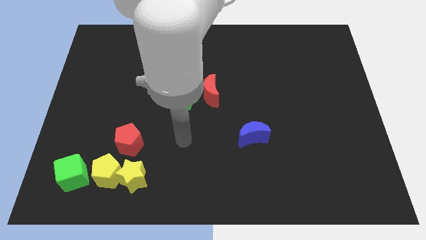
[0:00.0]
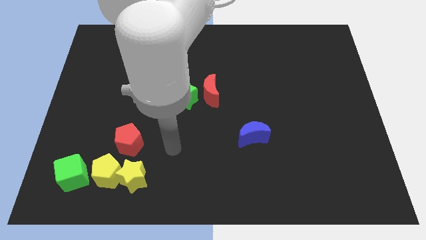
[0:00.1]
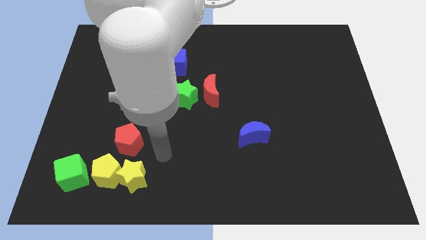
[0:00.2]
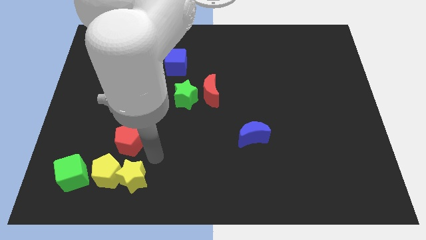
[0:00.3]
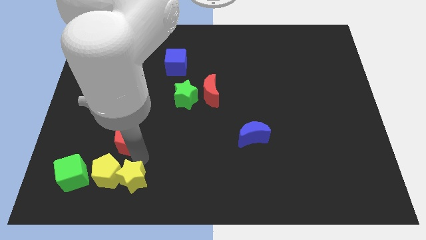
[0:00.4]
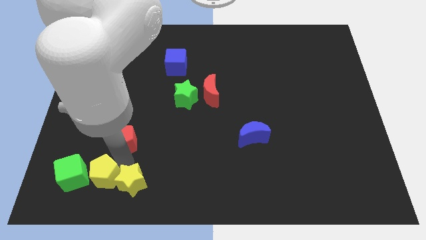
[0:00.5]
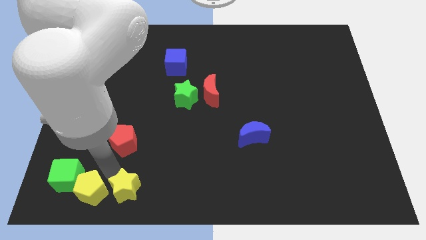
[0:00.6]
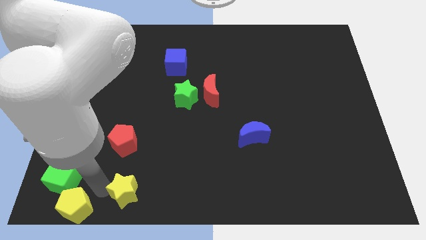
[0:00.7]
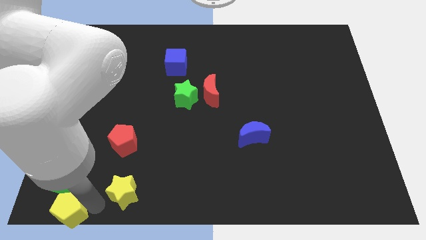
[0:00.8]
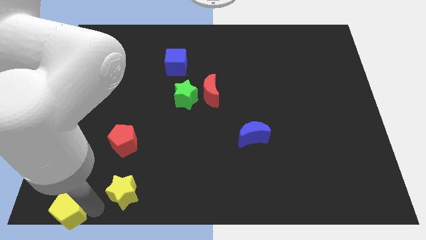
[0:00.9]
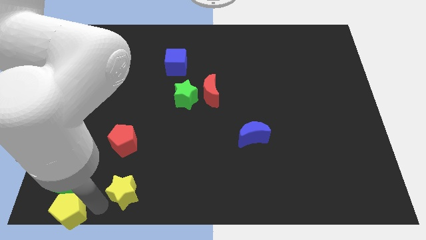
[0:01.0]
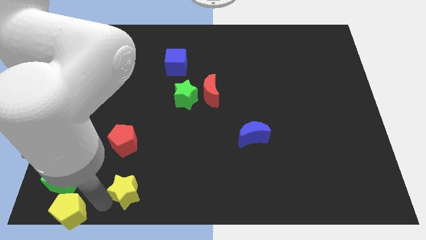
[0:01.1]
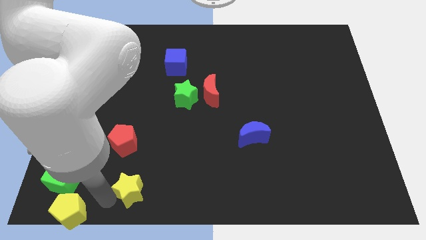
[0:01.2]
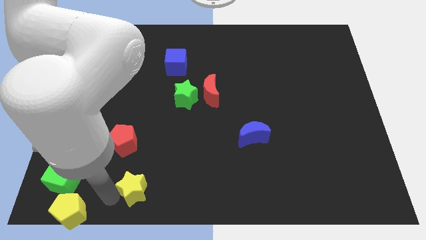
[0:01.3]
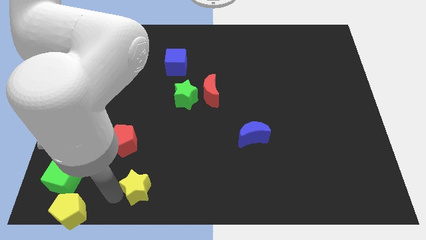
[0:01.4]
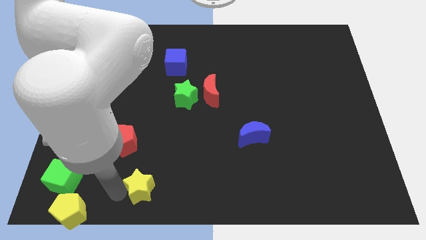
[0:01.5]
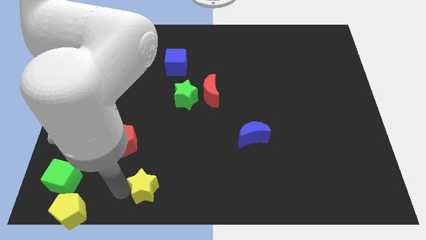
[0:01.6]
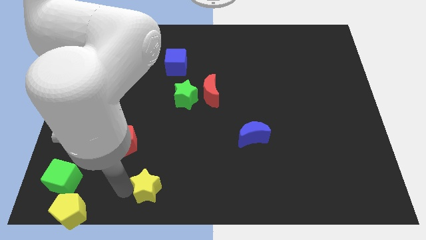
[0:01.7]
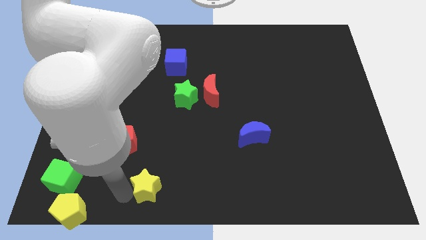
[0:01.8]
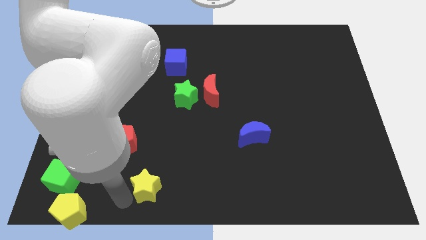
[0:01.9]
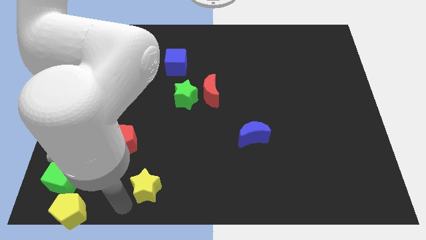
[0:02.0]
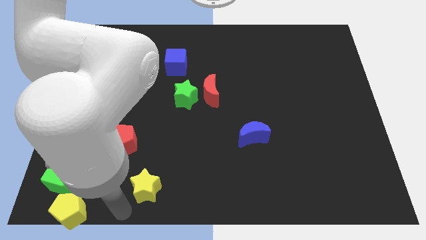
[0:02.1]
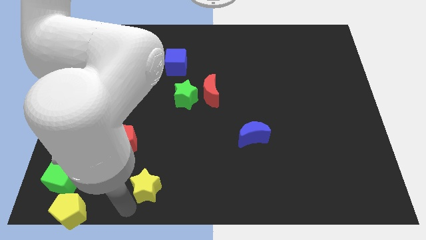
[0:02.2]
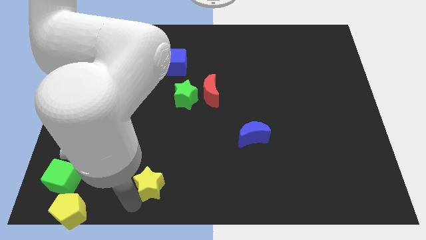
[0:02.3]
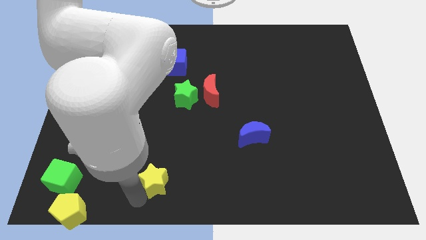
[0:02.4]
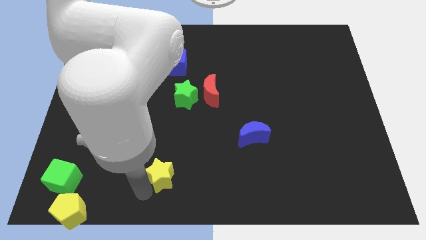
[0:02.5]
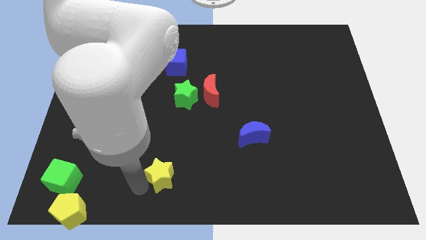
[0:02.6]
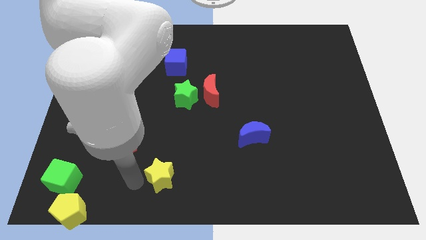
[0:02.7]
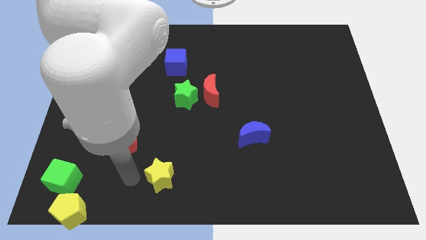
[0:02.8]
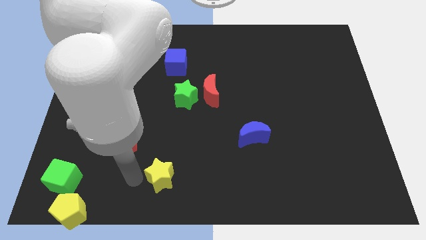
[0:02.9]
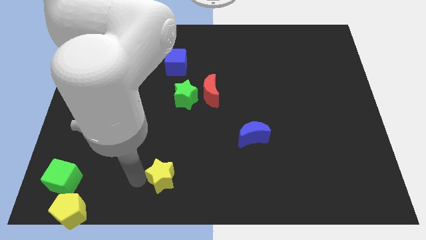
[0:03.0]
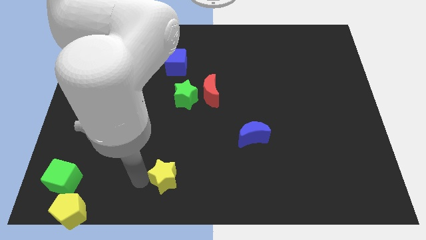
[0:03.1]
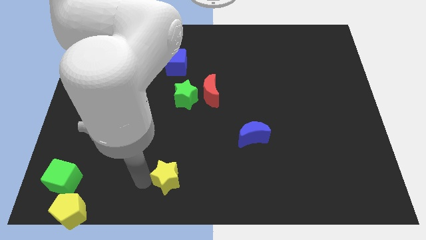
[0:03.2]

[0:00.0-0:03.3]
push the yellow star right somewhat

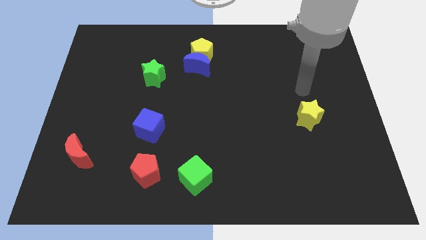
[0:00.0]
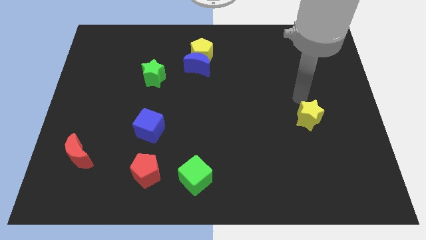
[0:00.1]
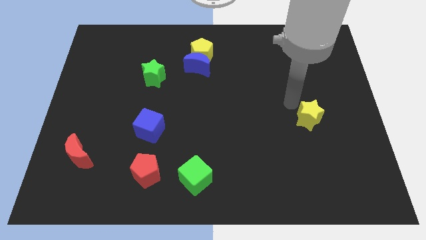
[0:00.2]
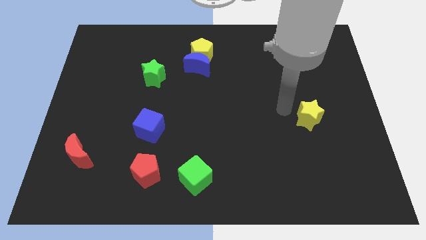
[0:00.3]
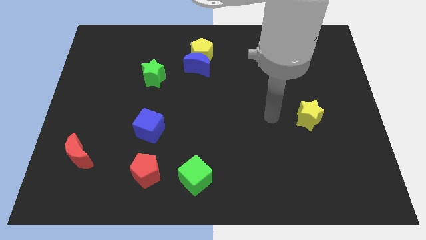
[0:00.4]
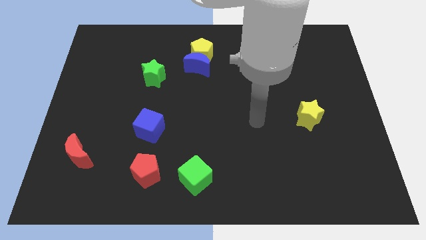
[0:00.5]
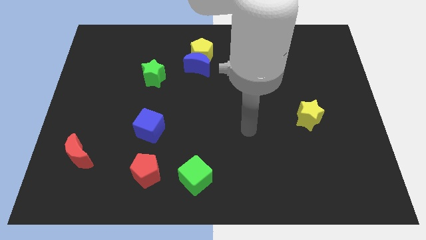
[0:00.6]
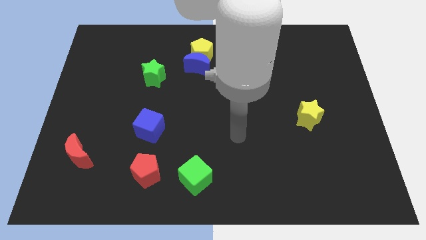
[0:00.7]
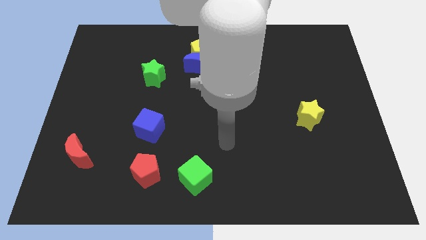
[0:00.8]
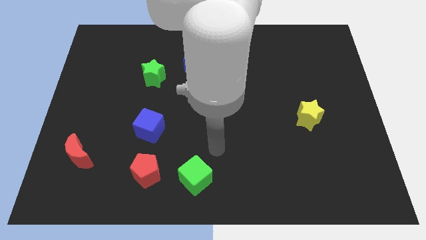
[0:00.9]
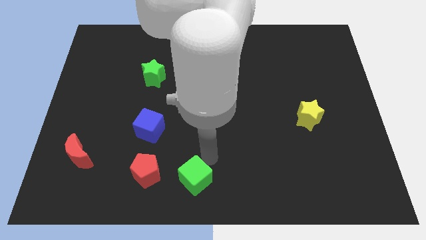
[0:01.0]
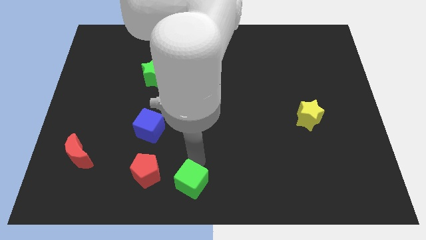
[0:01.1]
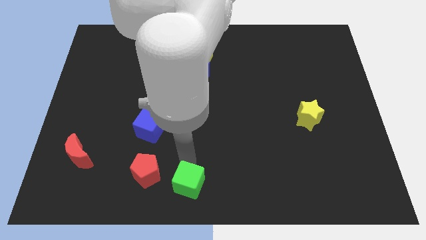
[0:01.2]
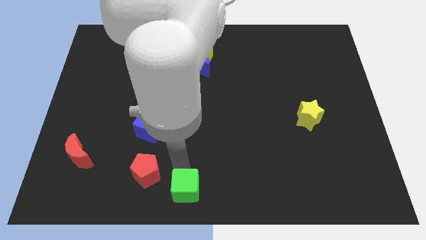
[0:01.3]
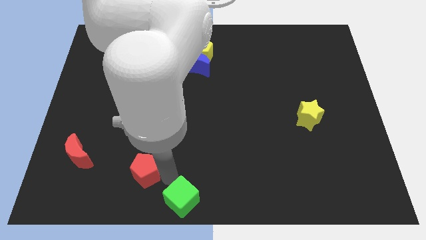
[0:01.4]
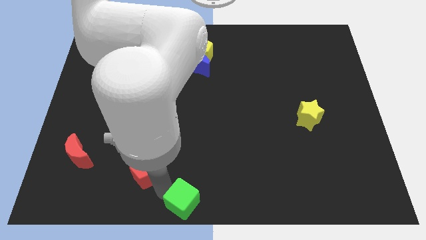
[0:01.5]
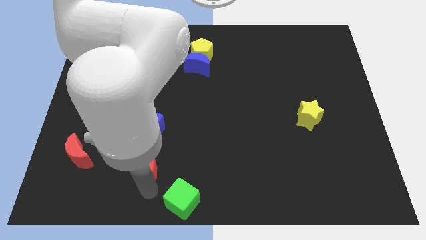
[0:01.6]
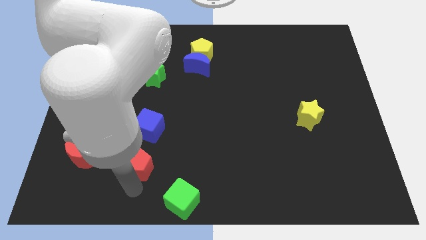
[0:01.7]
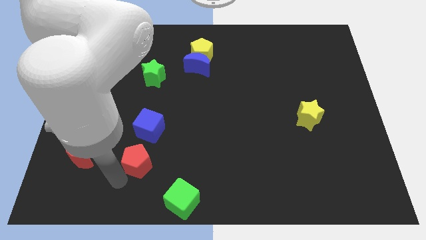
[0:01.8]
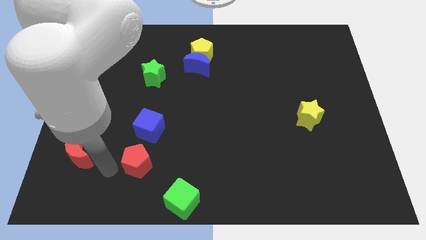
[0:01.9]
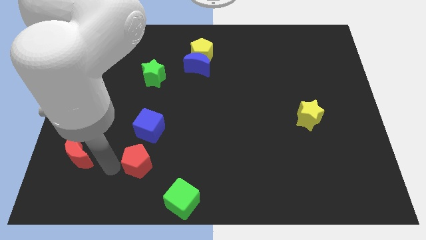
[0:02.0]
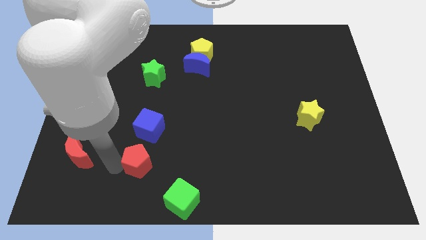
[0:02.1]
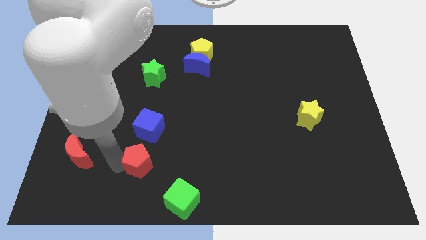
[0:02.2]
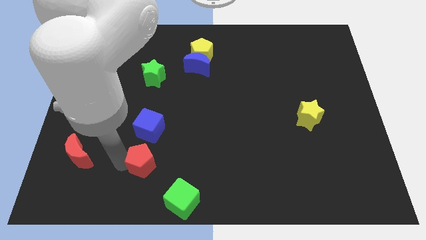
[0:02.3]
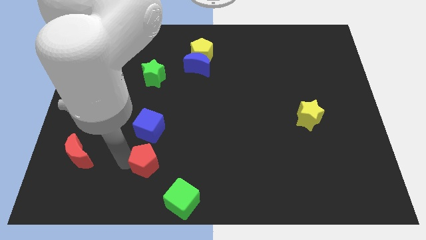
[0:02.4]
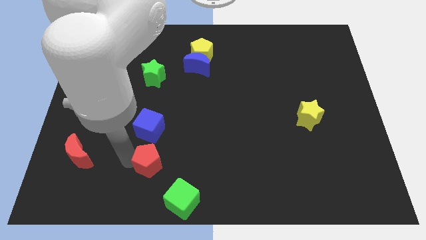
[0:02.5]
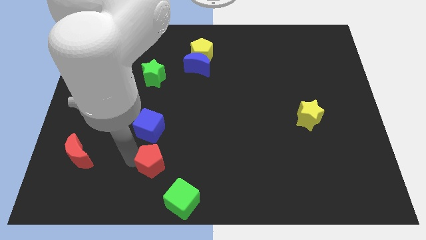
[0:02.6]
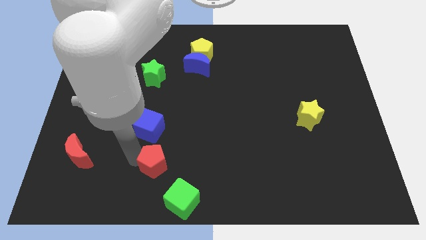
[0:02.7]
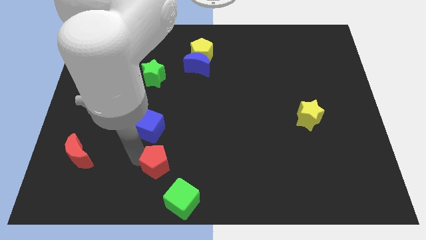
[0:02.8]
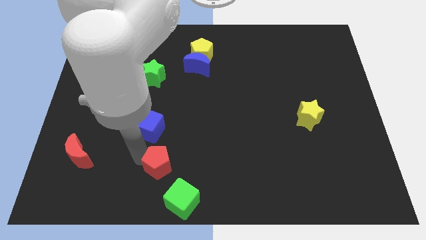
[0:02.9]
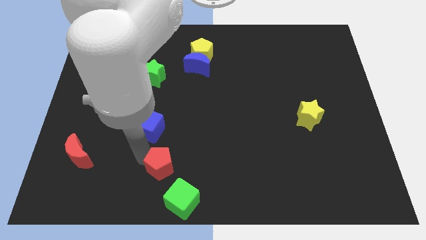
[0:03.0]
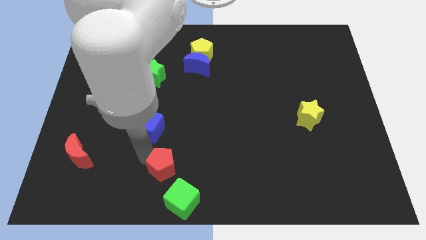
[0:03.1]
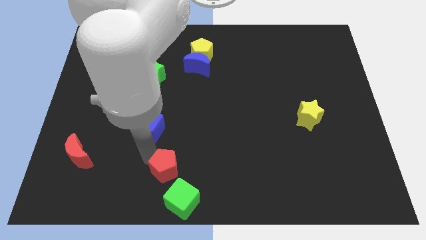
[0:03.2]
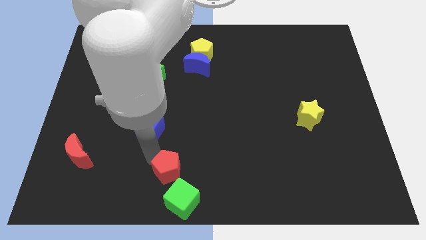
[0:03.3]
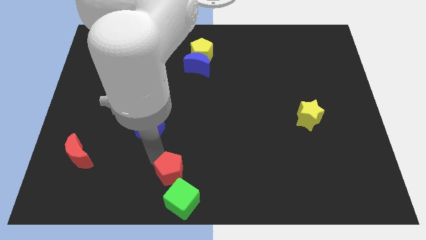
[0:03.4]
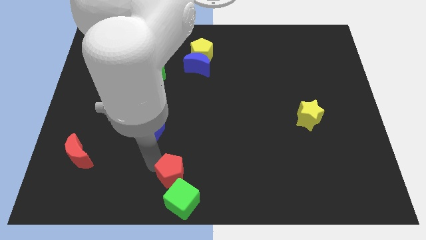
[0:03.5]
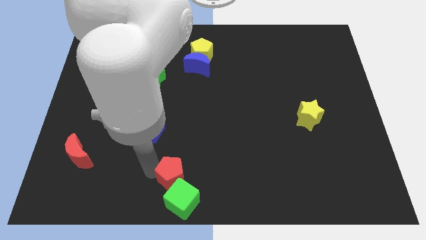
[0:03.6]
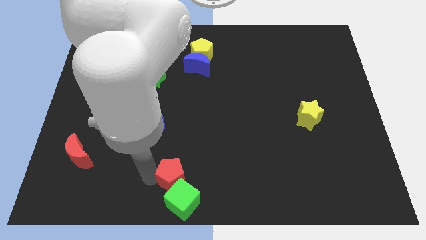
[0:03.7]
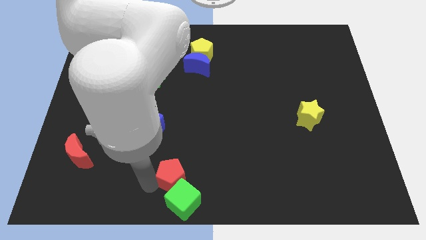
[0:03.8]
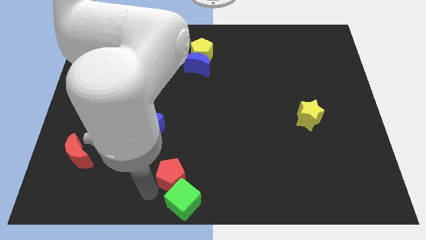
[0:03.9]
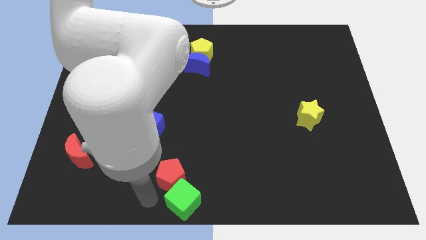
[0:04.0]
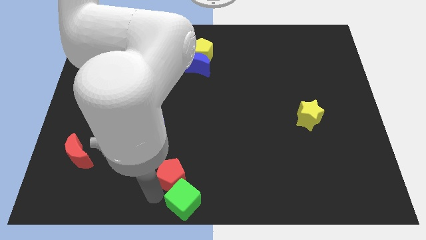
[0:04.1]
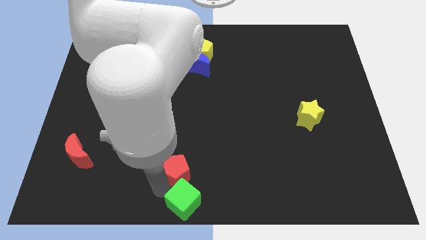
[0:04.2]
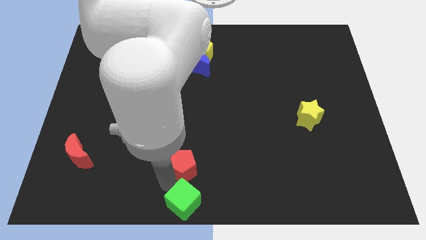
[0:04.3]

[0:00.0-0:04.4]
slightly move the red pentagon right

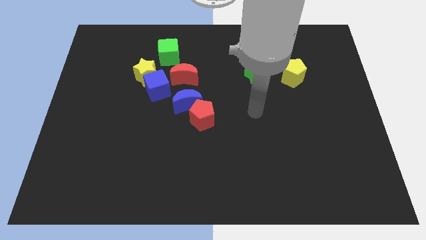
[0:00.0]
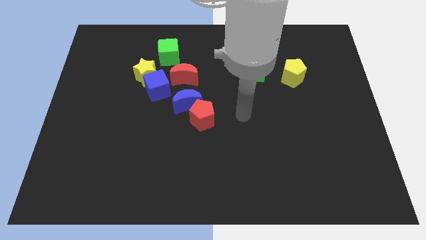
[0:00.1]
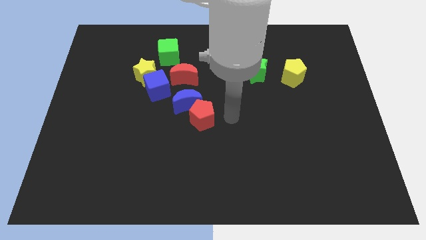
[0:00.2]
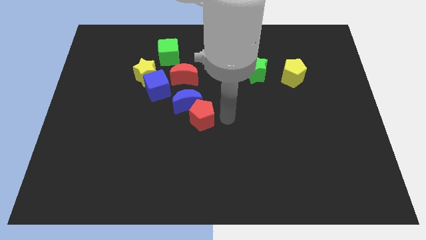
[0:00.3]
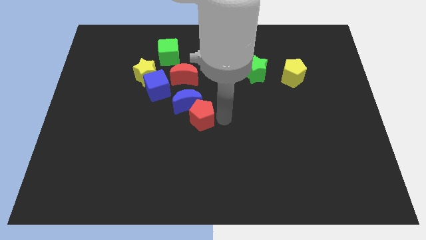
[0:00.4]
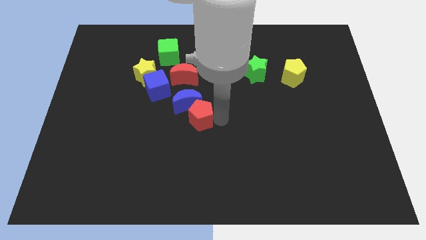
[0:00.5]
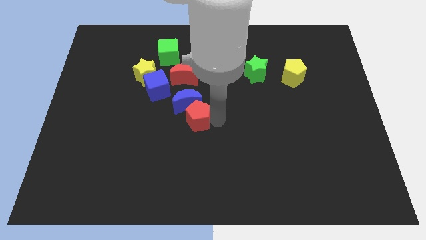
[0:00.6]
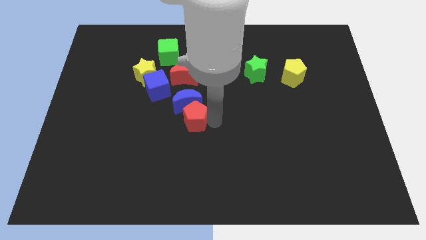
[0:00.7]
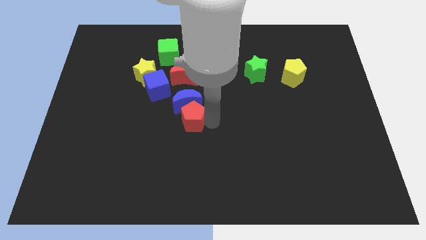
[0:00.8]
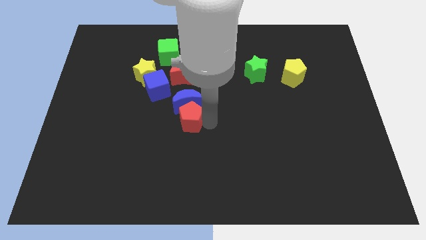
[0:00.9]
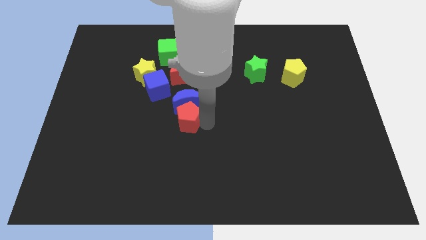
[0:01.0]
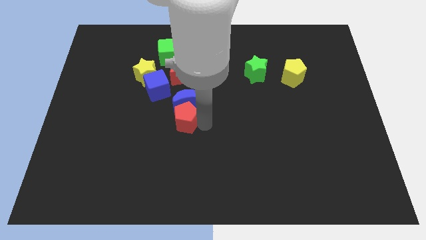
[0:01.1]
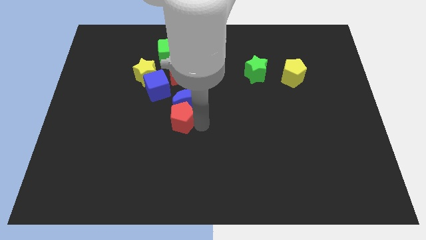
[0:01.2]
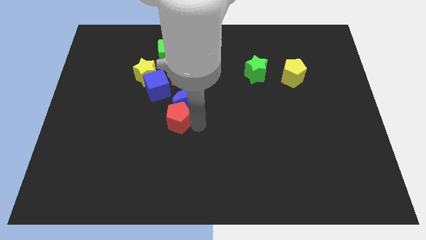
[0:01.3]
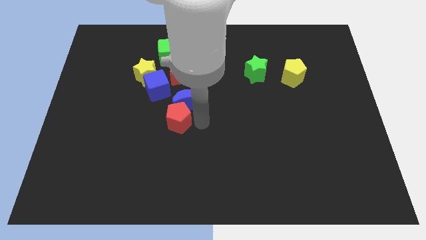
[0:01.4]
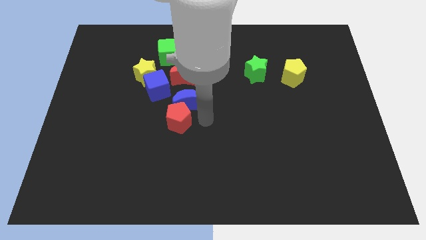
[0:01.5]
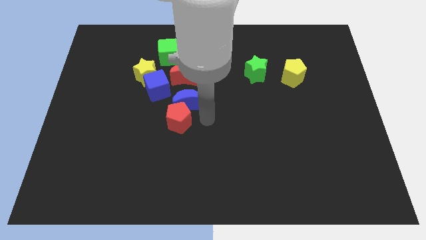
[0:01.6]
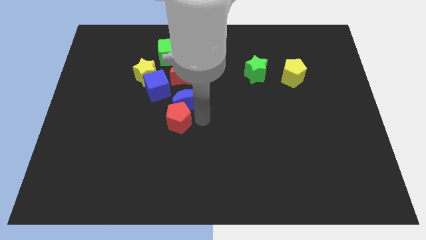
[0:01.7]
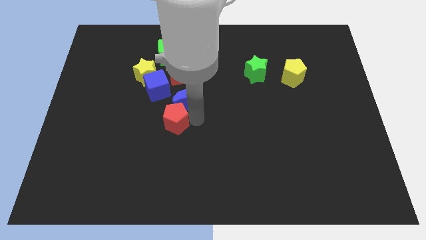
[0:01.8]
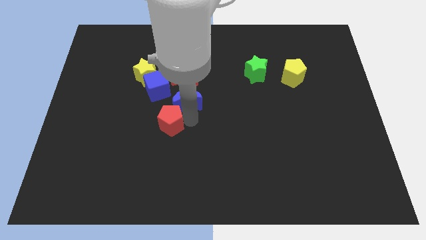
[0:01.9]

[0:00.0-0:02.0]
slightly move the red pentagon to the left
